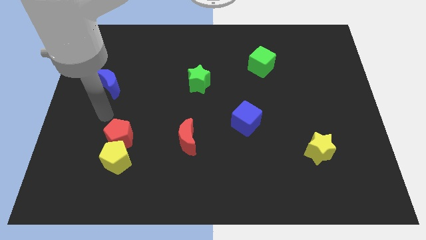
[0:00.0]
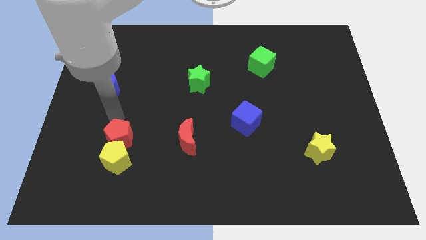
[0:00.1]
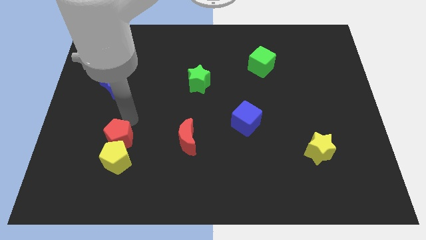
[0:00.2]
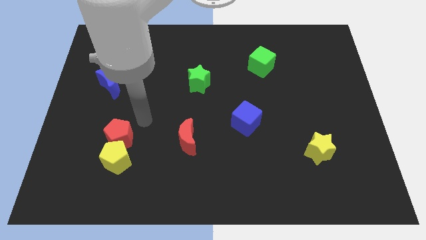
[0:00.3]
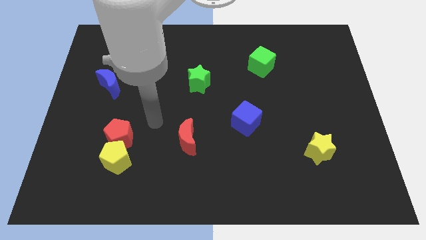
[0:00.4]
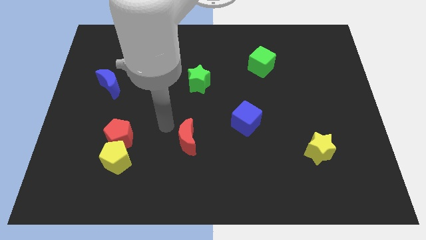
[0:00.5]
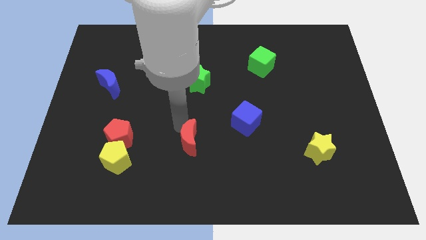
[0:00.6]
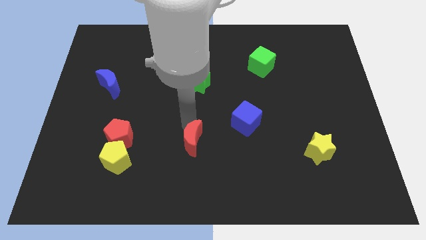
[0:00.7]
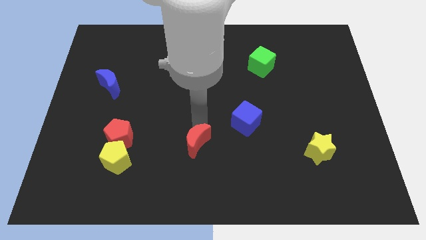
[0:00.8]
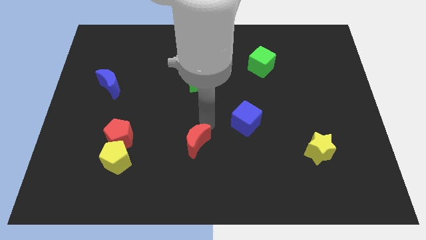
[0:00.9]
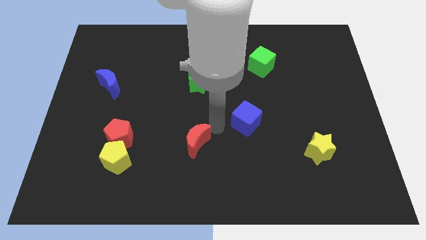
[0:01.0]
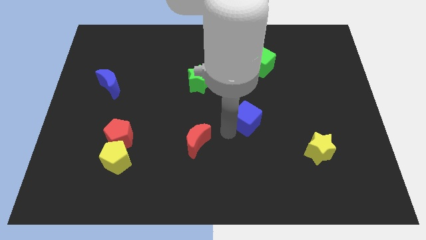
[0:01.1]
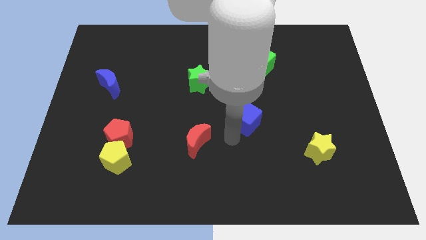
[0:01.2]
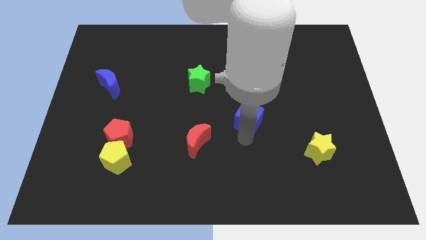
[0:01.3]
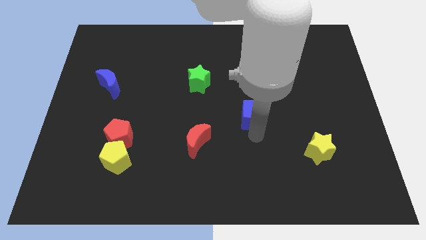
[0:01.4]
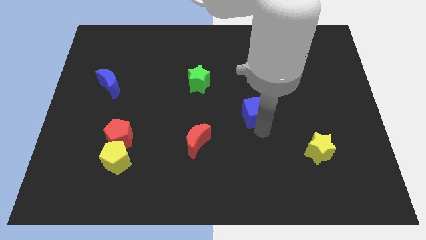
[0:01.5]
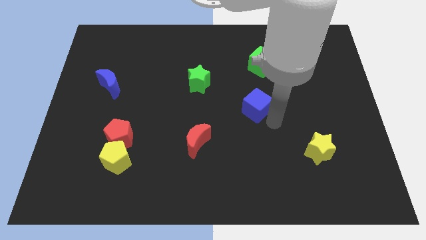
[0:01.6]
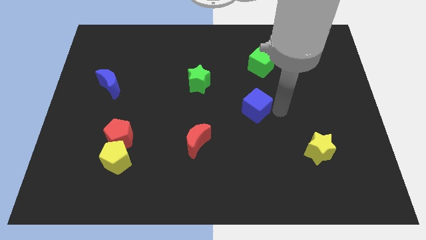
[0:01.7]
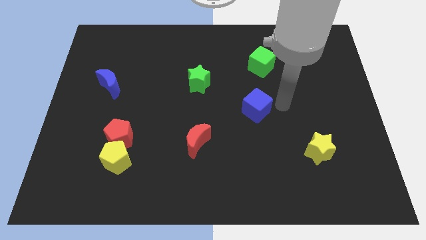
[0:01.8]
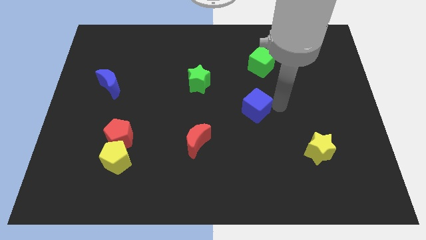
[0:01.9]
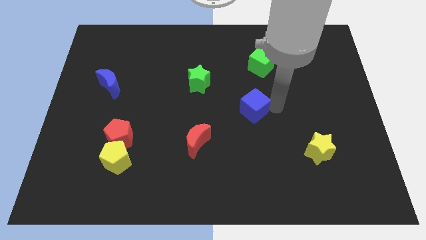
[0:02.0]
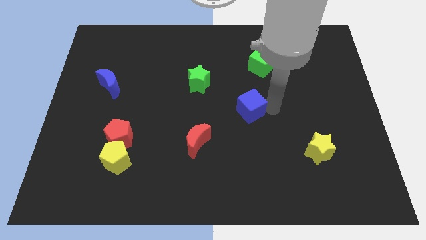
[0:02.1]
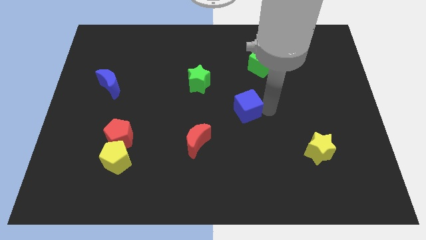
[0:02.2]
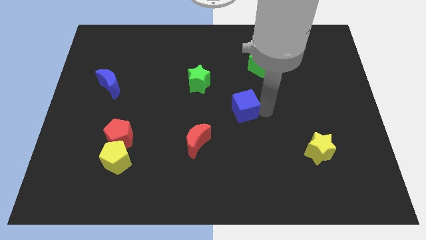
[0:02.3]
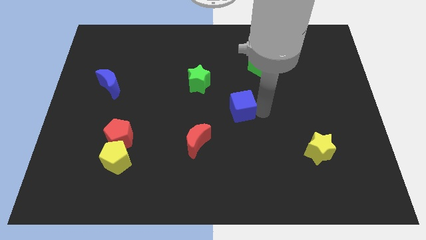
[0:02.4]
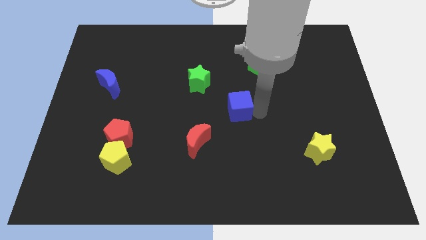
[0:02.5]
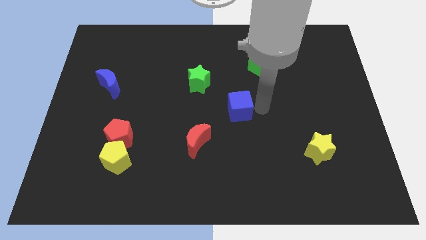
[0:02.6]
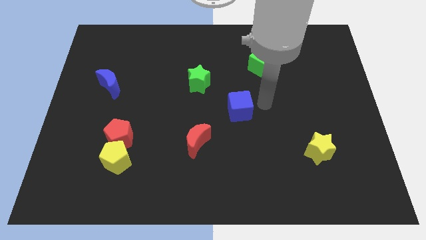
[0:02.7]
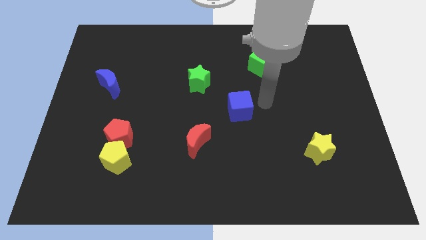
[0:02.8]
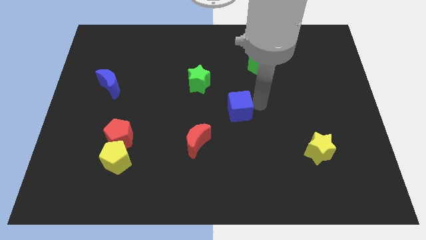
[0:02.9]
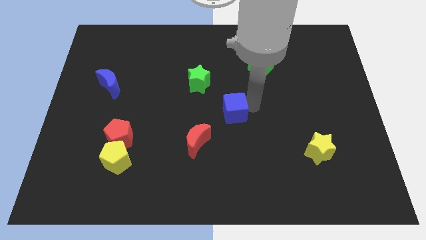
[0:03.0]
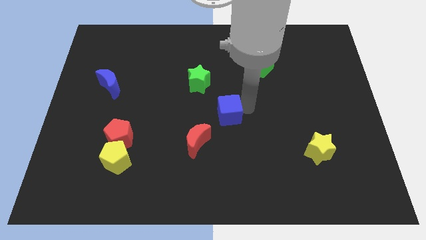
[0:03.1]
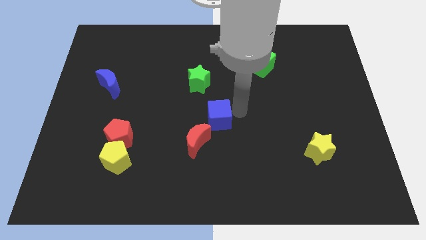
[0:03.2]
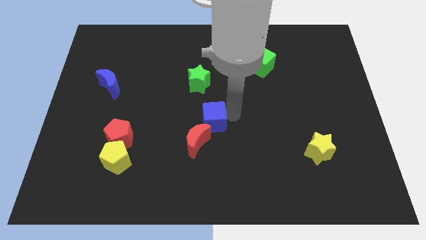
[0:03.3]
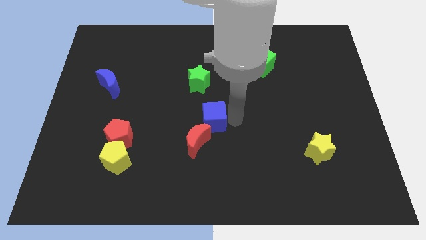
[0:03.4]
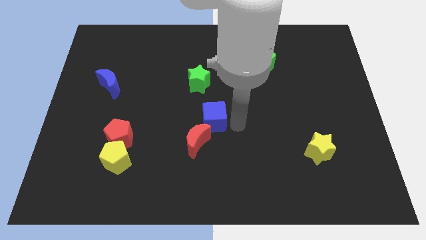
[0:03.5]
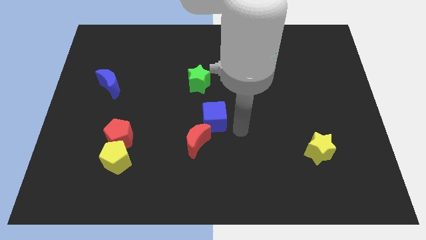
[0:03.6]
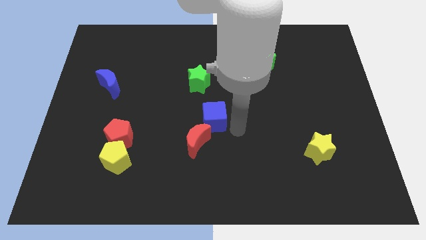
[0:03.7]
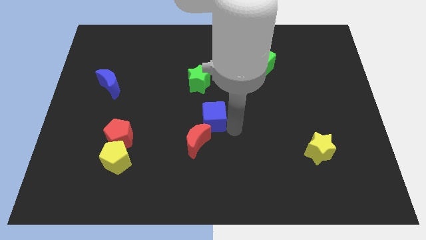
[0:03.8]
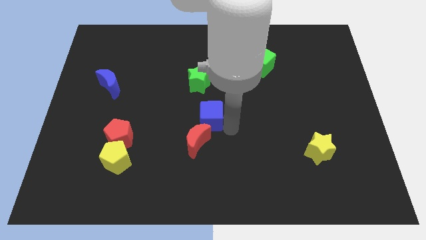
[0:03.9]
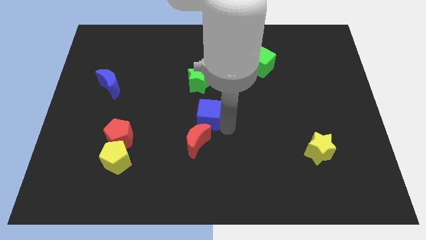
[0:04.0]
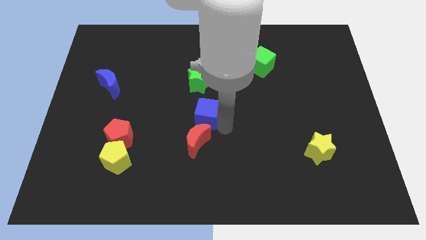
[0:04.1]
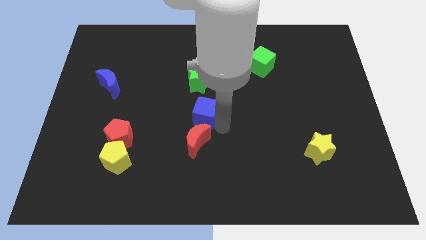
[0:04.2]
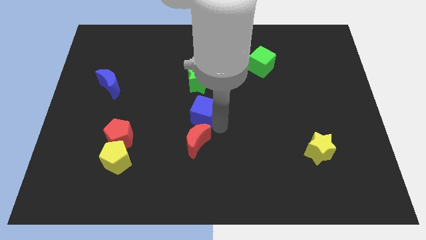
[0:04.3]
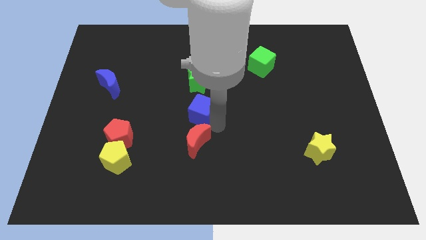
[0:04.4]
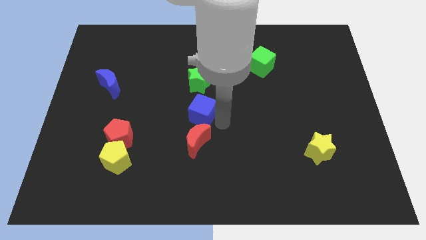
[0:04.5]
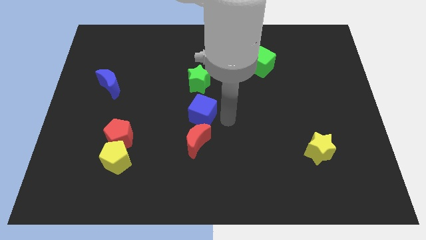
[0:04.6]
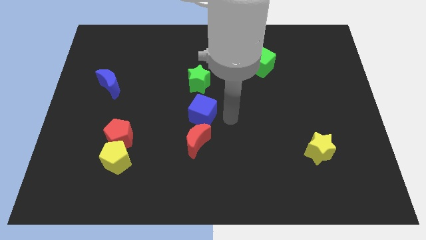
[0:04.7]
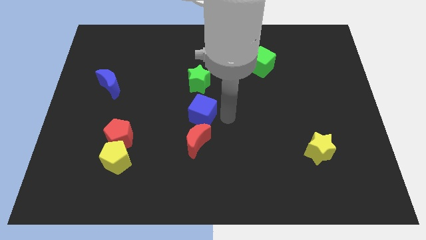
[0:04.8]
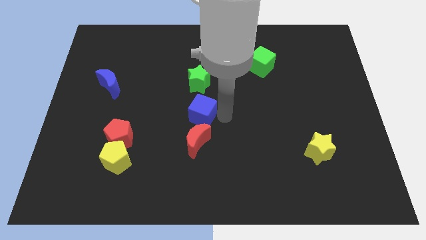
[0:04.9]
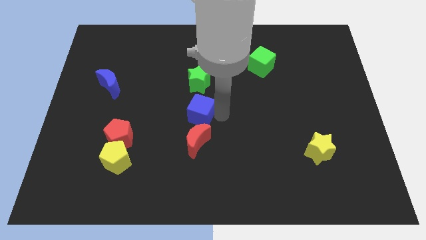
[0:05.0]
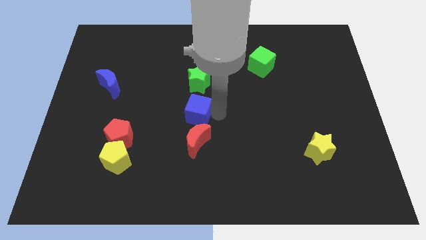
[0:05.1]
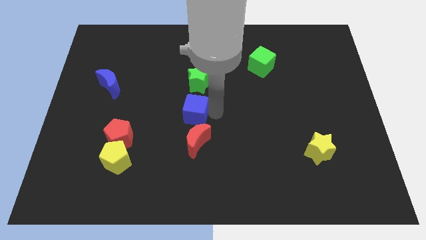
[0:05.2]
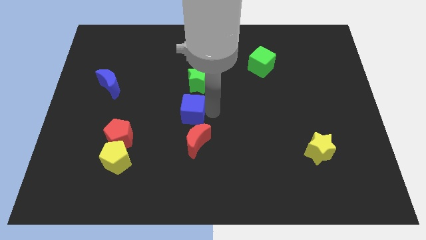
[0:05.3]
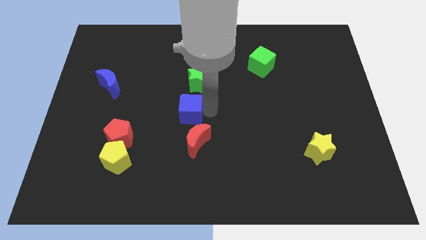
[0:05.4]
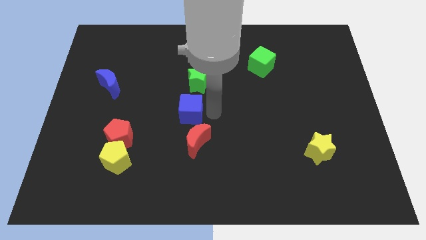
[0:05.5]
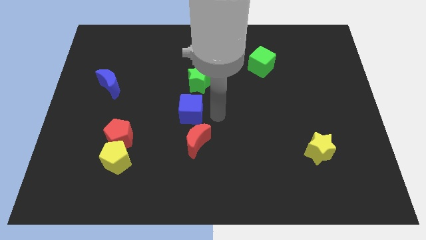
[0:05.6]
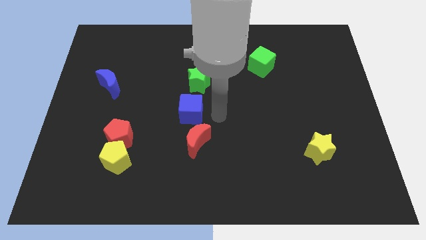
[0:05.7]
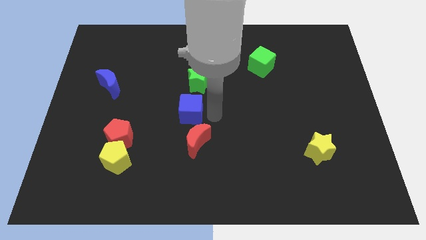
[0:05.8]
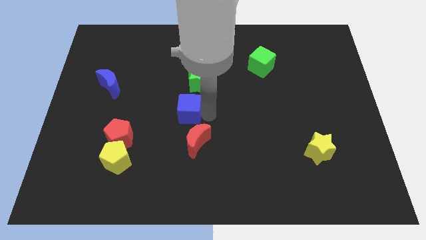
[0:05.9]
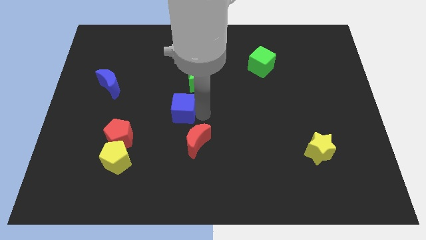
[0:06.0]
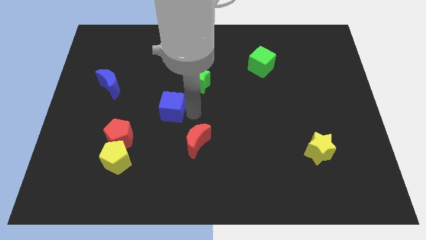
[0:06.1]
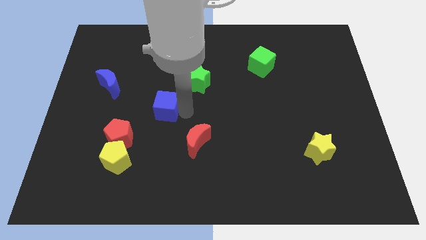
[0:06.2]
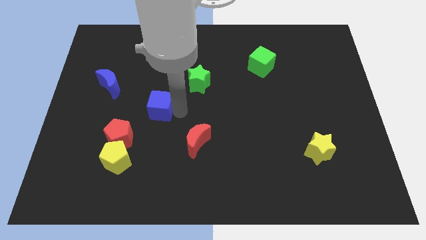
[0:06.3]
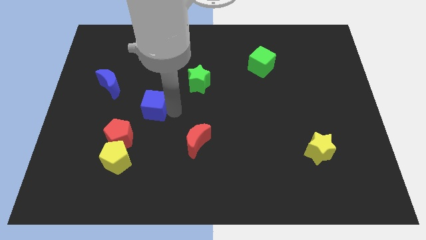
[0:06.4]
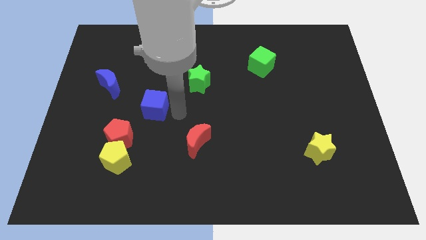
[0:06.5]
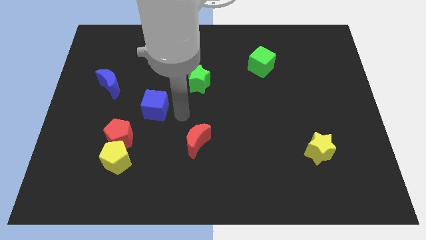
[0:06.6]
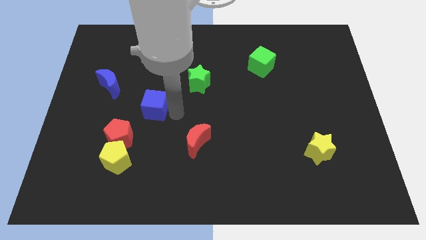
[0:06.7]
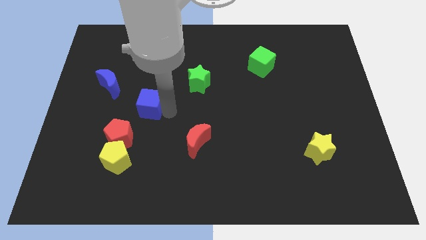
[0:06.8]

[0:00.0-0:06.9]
move the blue cube to the bottom right of the blue moon
